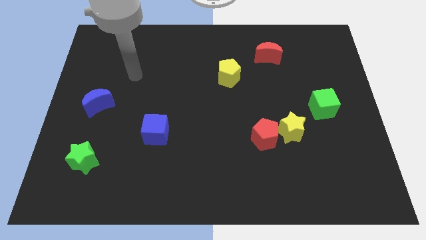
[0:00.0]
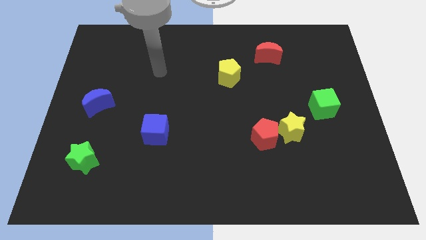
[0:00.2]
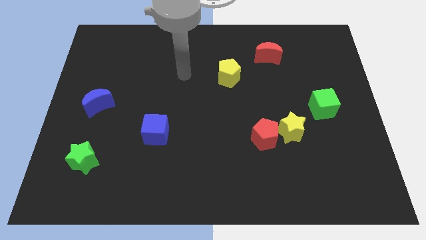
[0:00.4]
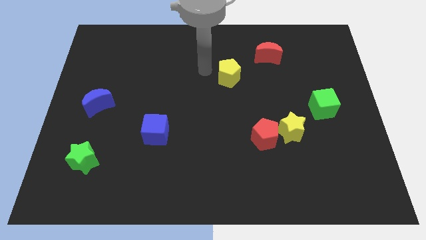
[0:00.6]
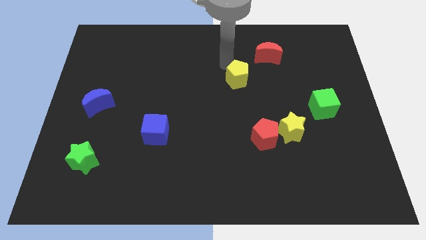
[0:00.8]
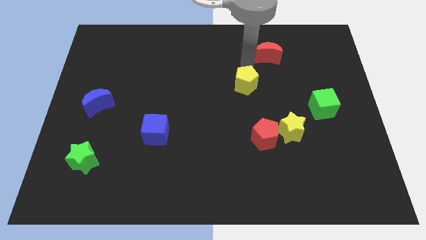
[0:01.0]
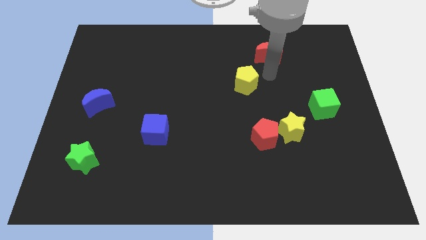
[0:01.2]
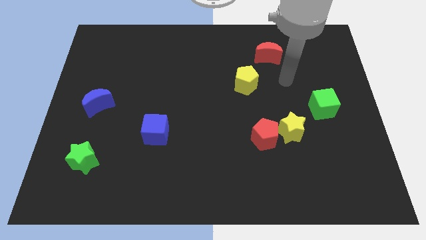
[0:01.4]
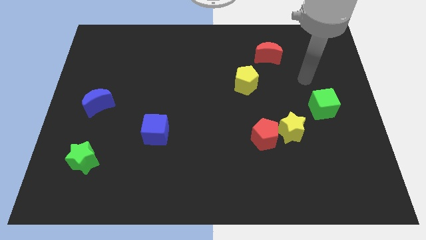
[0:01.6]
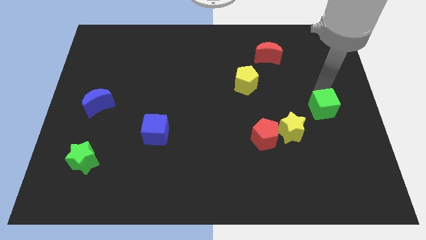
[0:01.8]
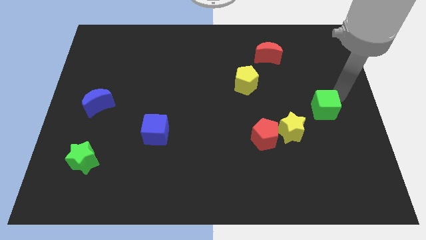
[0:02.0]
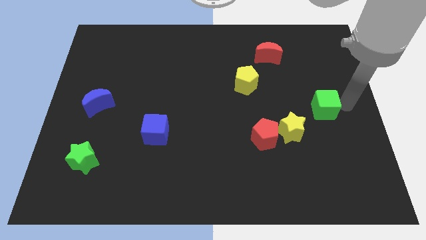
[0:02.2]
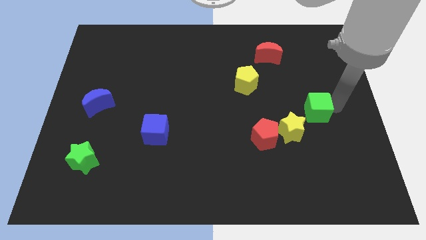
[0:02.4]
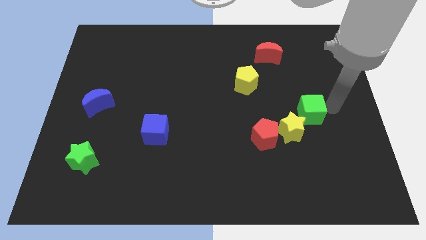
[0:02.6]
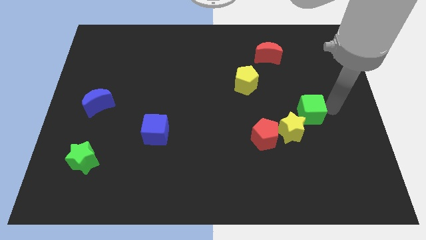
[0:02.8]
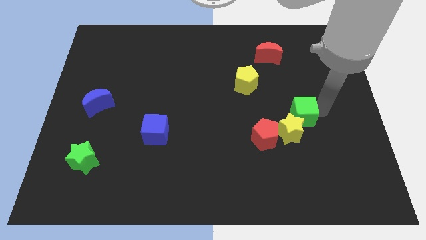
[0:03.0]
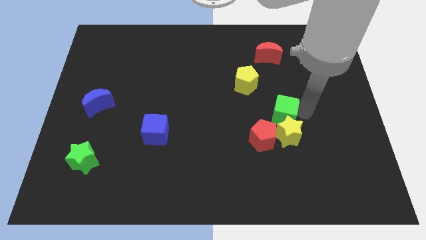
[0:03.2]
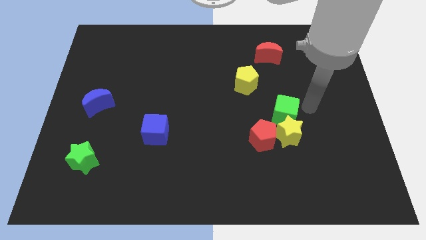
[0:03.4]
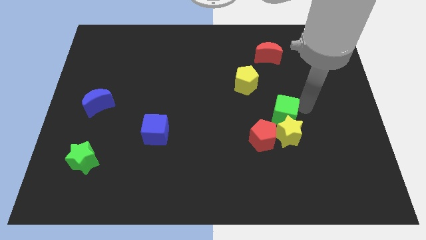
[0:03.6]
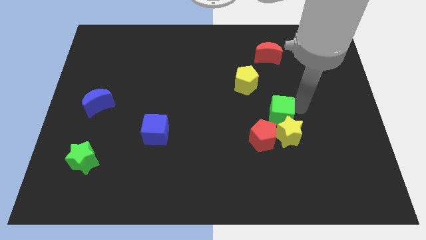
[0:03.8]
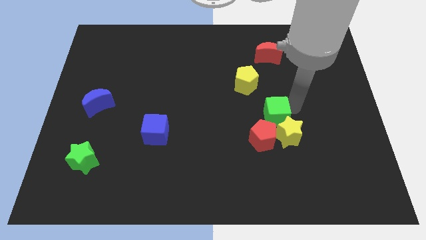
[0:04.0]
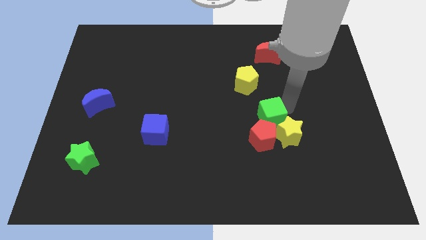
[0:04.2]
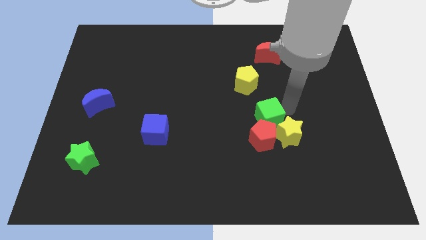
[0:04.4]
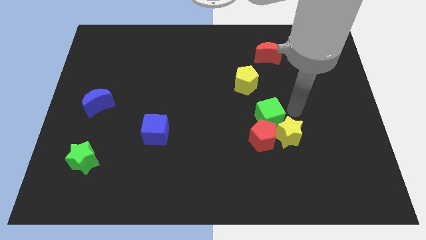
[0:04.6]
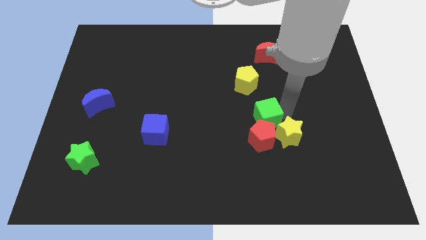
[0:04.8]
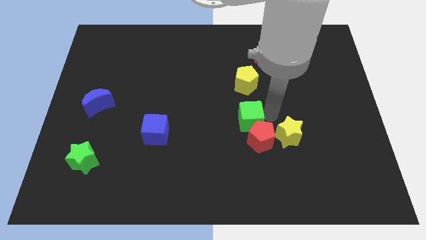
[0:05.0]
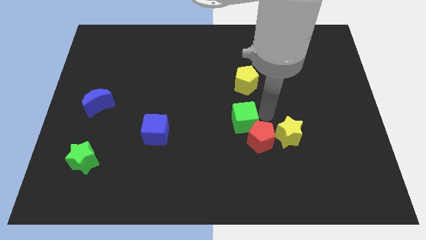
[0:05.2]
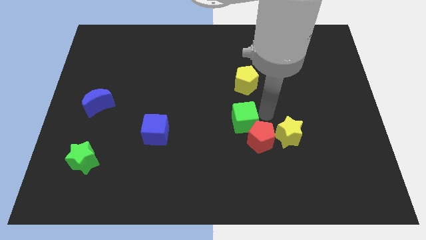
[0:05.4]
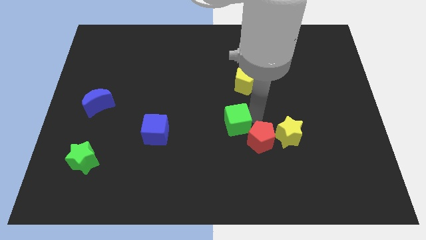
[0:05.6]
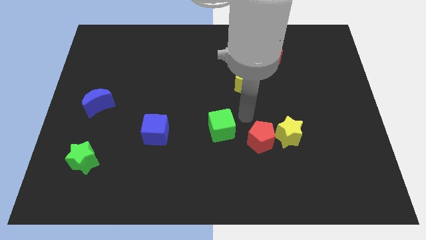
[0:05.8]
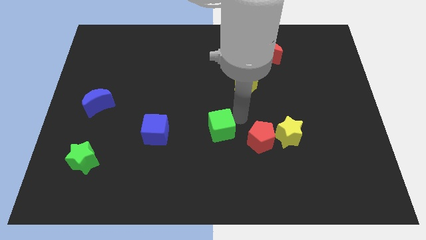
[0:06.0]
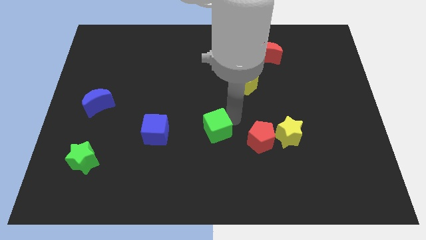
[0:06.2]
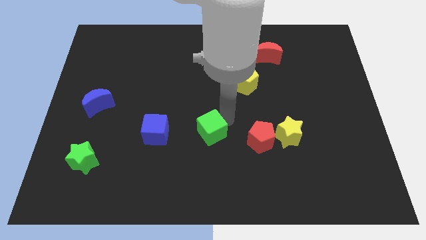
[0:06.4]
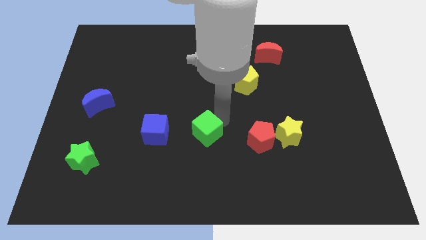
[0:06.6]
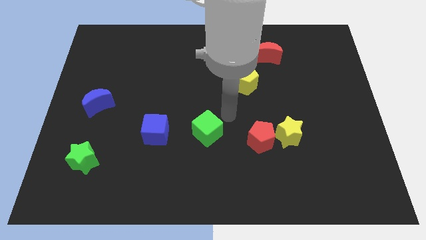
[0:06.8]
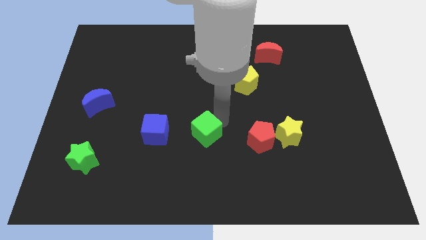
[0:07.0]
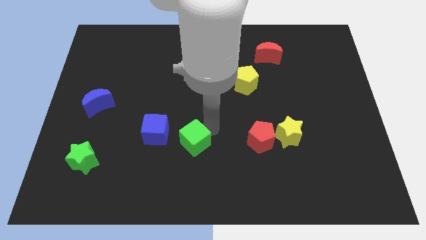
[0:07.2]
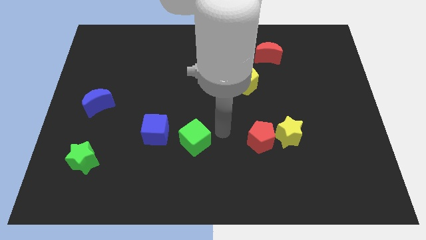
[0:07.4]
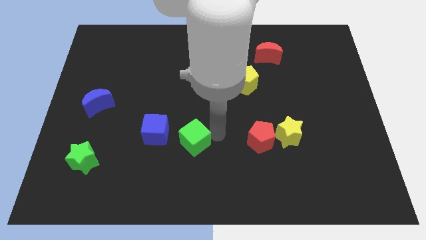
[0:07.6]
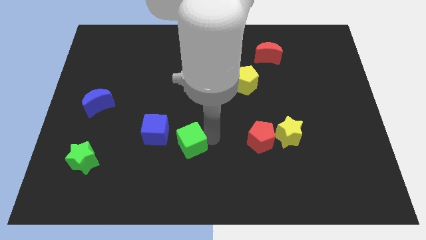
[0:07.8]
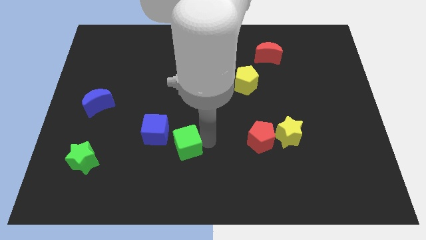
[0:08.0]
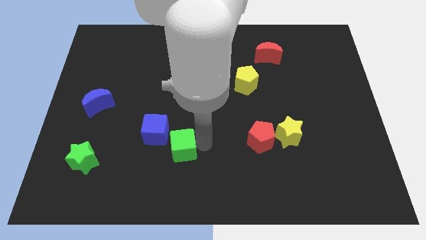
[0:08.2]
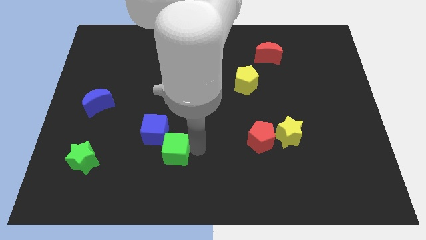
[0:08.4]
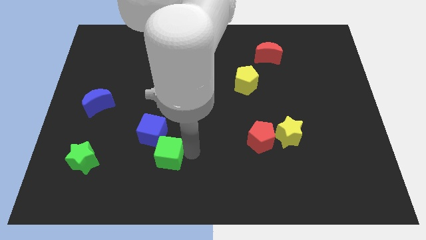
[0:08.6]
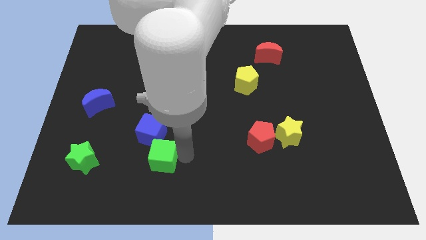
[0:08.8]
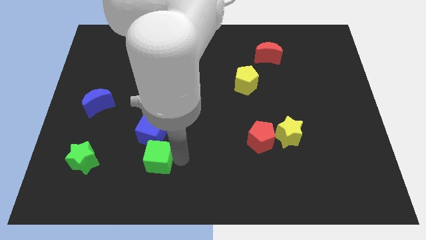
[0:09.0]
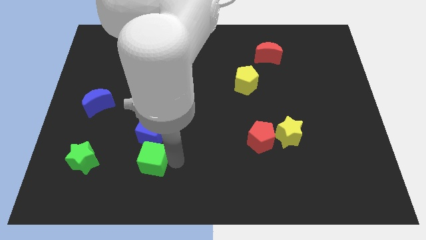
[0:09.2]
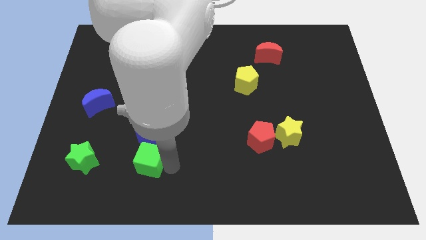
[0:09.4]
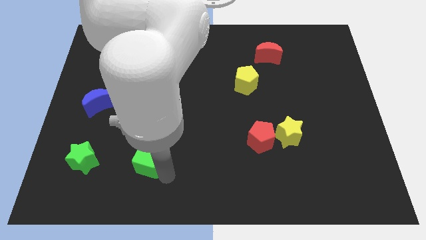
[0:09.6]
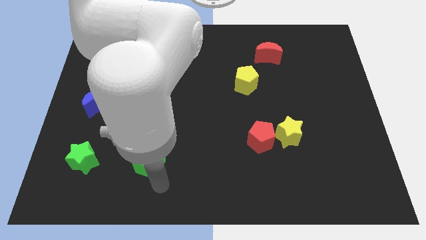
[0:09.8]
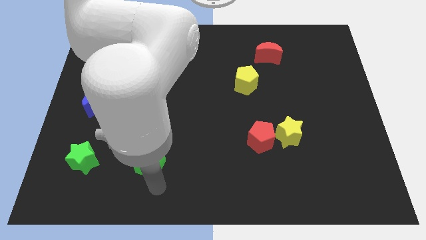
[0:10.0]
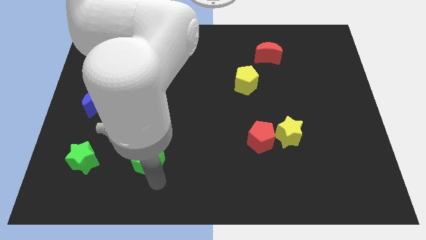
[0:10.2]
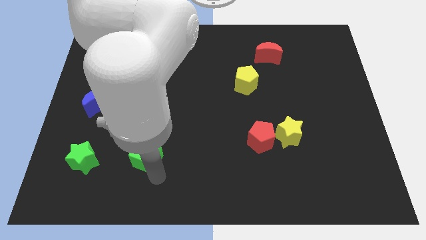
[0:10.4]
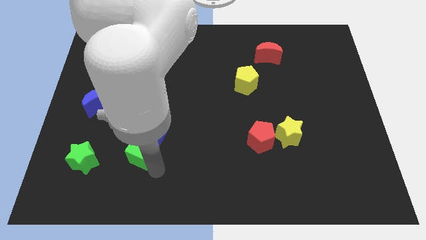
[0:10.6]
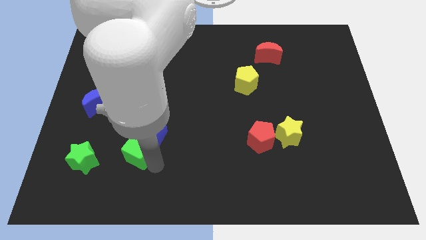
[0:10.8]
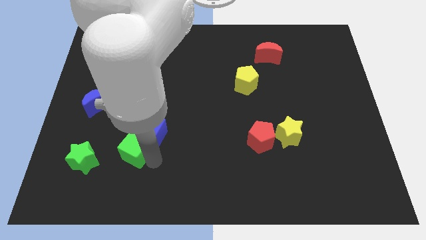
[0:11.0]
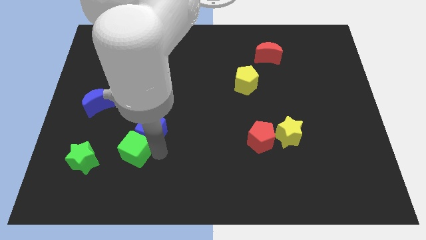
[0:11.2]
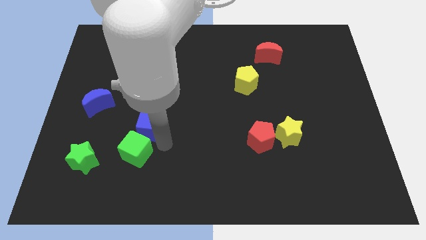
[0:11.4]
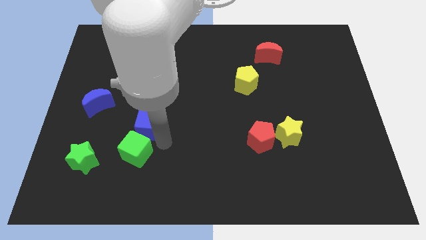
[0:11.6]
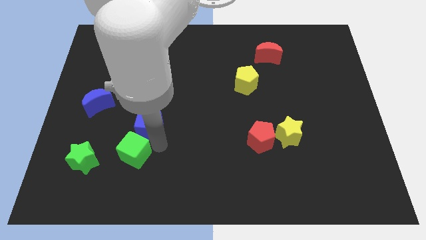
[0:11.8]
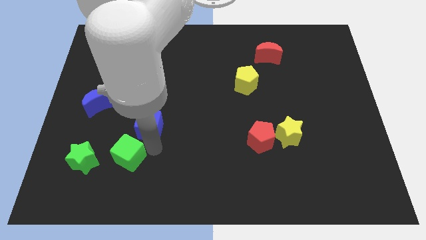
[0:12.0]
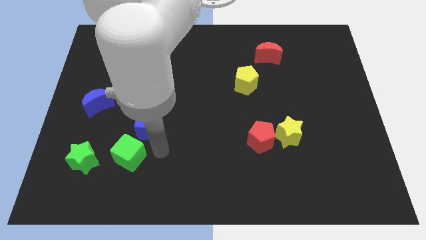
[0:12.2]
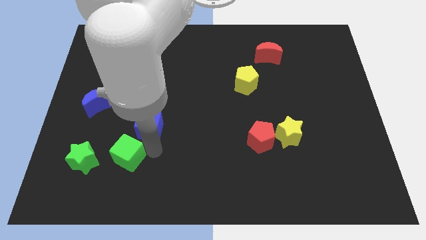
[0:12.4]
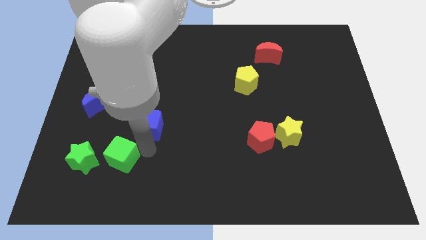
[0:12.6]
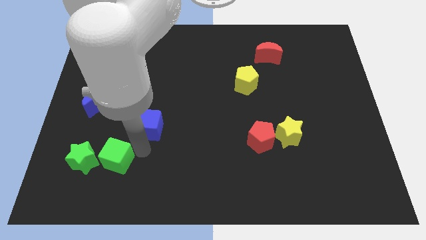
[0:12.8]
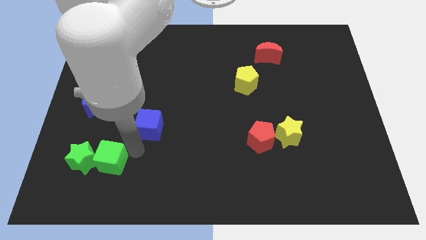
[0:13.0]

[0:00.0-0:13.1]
move the green cube next to the green star

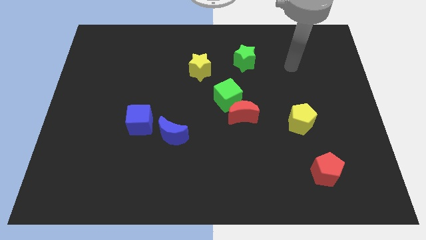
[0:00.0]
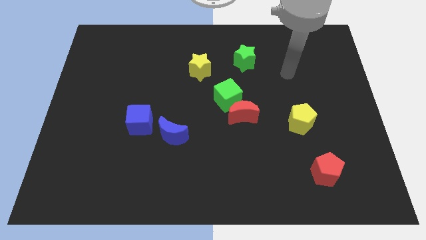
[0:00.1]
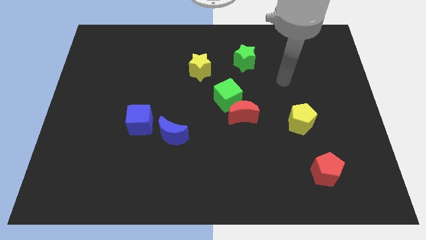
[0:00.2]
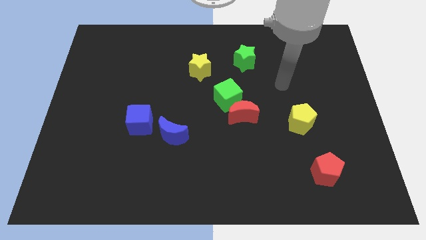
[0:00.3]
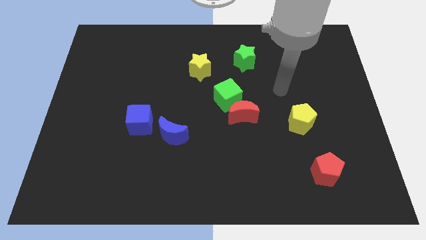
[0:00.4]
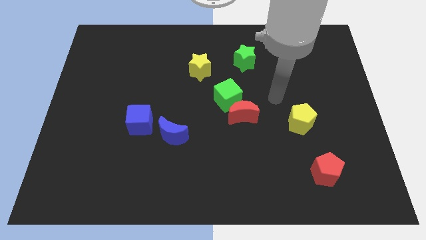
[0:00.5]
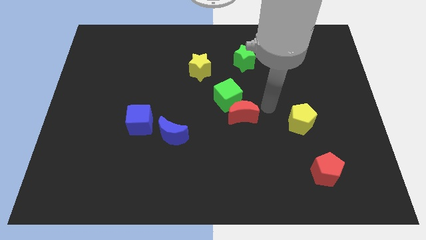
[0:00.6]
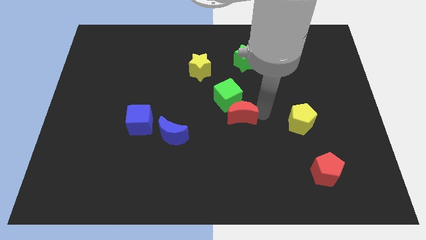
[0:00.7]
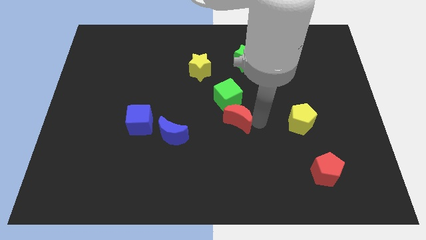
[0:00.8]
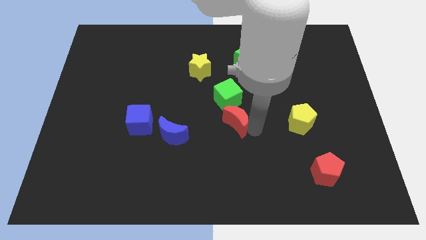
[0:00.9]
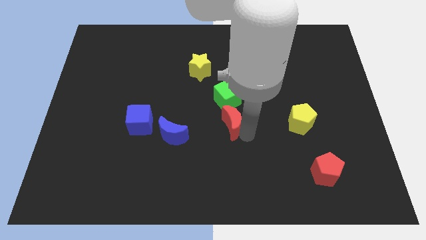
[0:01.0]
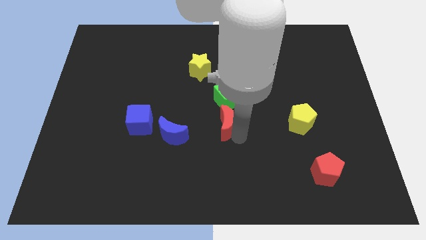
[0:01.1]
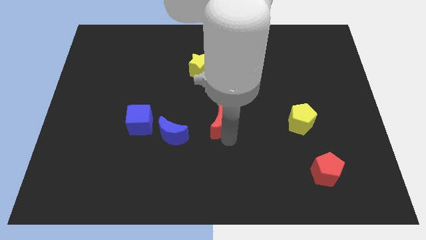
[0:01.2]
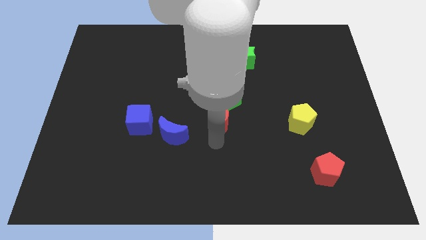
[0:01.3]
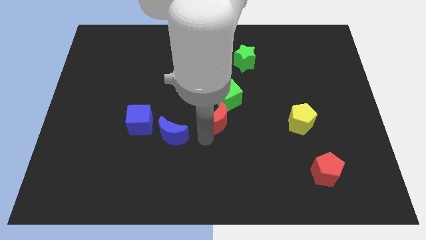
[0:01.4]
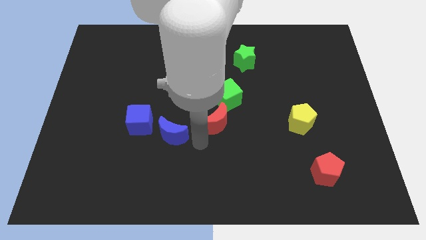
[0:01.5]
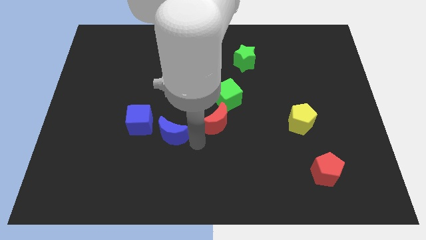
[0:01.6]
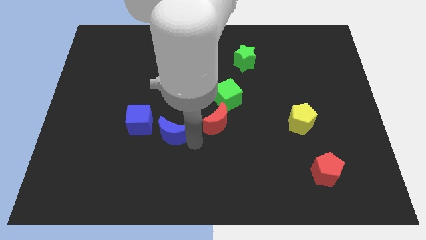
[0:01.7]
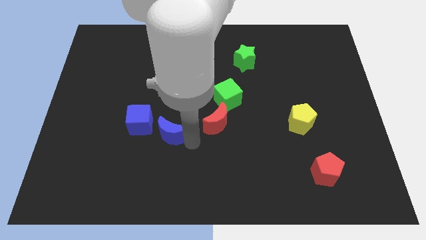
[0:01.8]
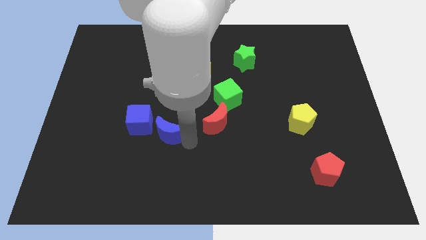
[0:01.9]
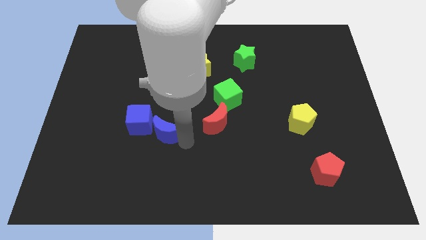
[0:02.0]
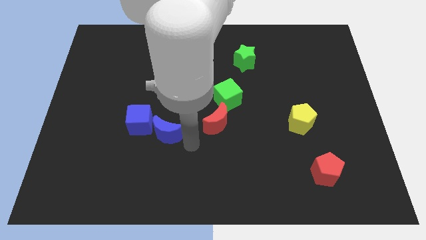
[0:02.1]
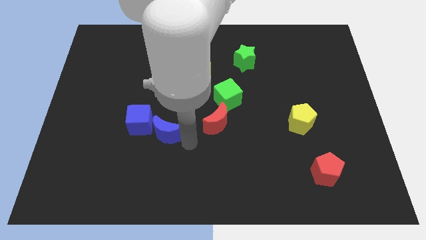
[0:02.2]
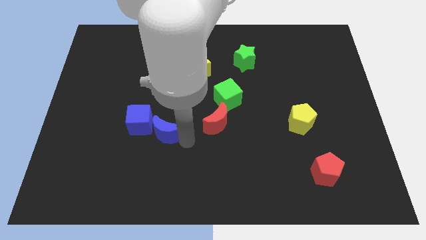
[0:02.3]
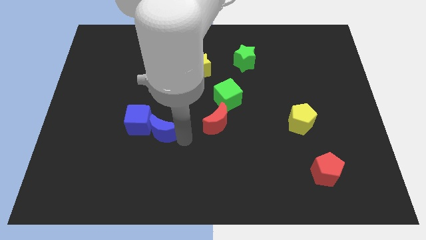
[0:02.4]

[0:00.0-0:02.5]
move the blue moon towards the blue cube
